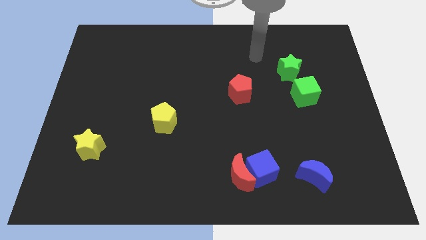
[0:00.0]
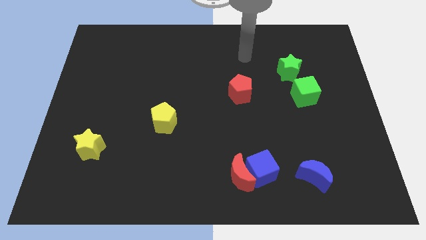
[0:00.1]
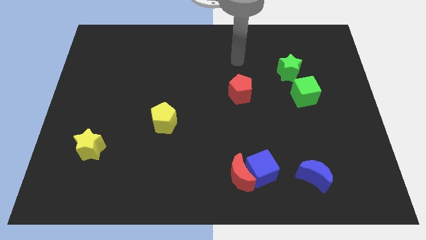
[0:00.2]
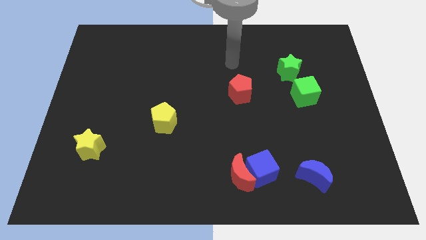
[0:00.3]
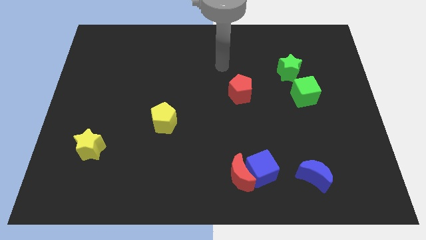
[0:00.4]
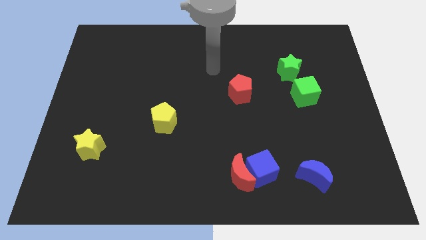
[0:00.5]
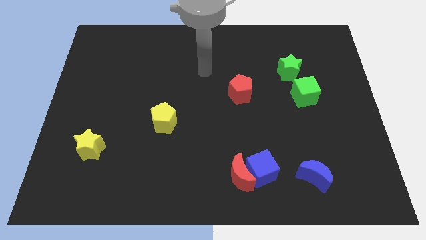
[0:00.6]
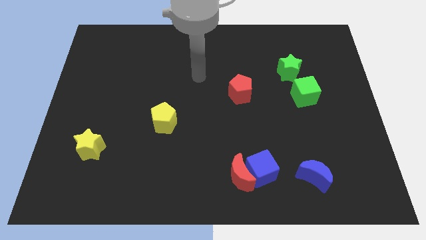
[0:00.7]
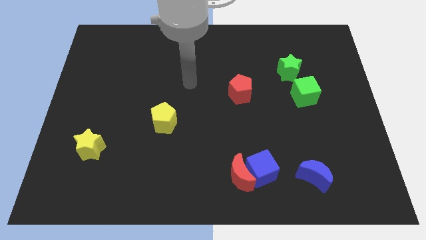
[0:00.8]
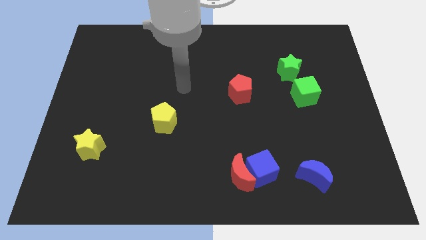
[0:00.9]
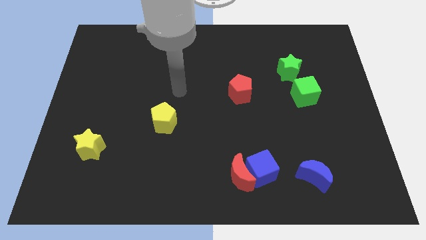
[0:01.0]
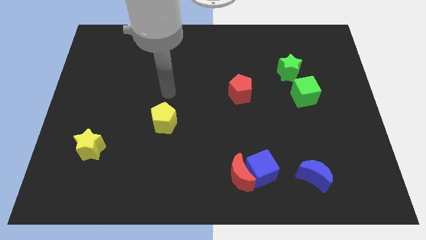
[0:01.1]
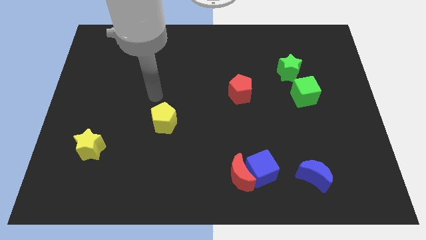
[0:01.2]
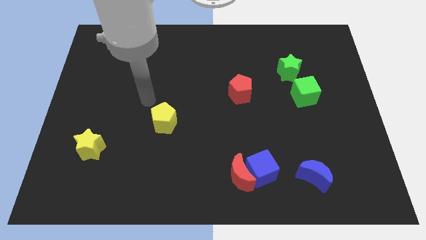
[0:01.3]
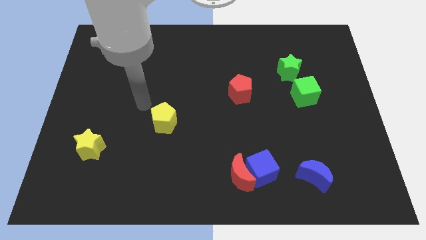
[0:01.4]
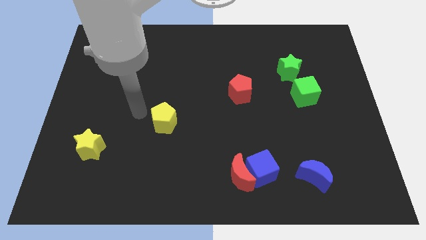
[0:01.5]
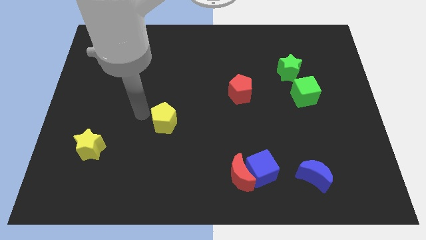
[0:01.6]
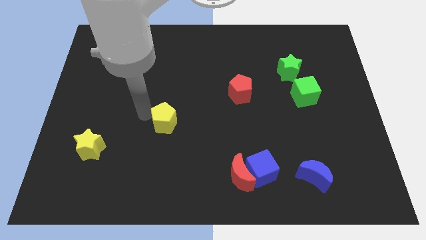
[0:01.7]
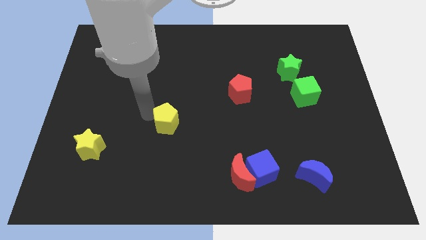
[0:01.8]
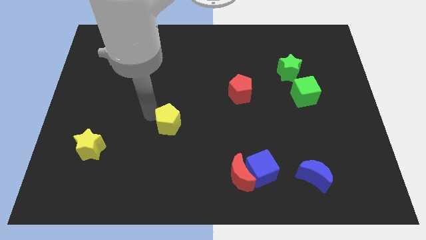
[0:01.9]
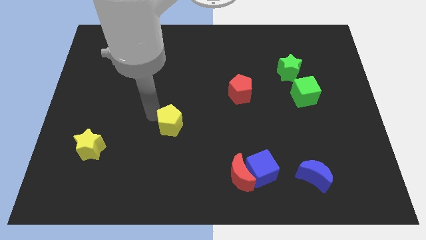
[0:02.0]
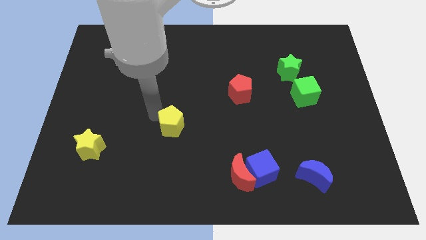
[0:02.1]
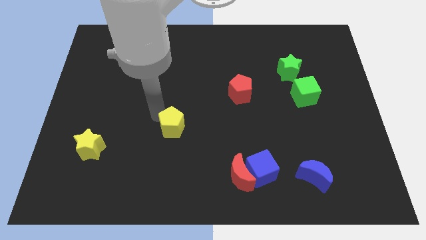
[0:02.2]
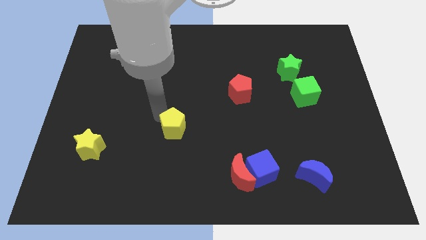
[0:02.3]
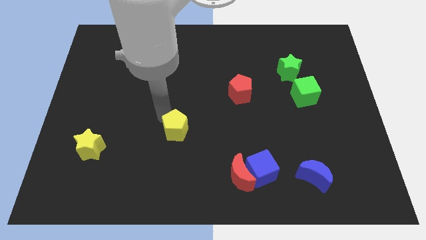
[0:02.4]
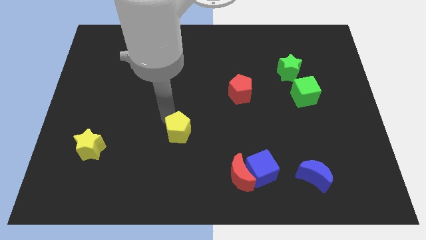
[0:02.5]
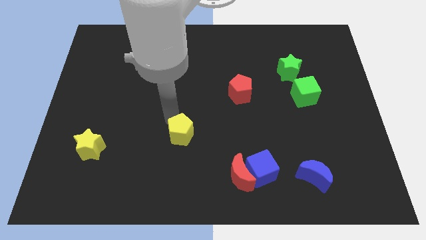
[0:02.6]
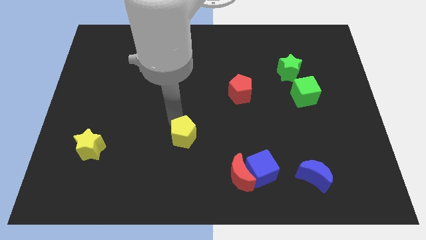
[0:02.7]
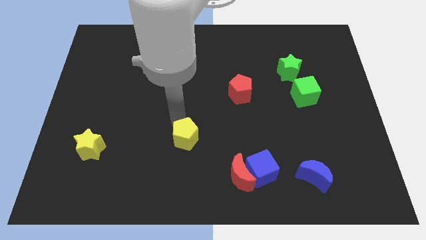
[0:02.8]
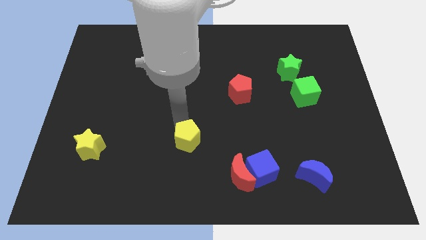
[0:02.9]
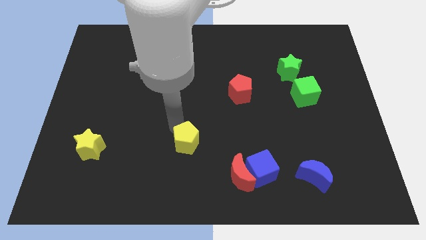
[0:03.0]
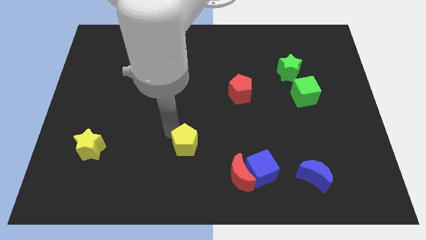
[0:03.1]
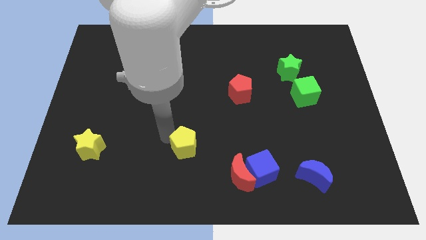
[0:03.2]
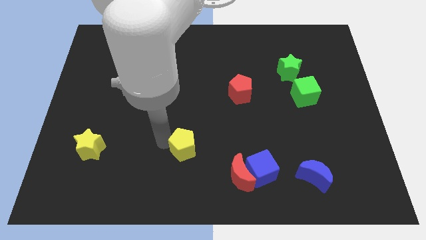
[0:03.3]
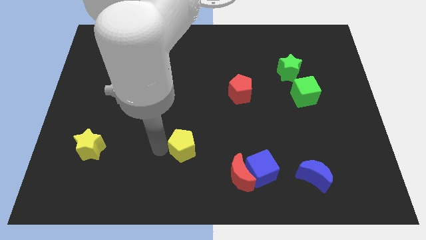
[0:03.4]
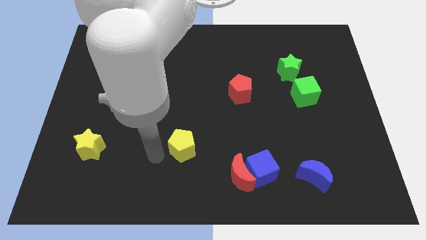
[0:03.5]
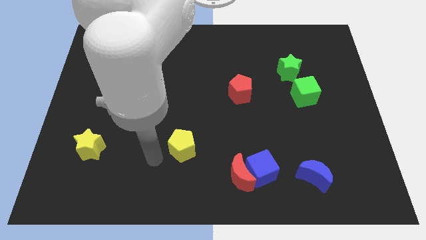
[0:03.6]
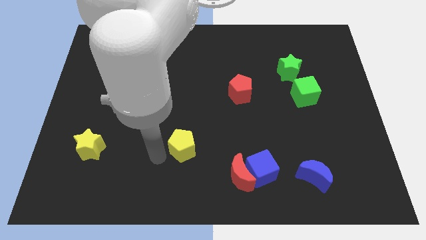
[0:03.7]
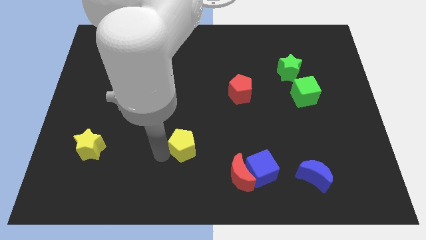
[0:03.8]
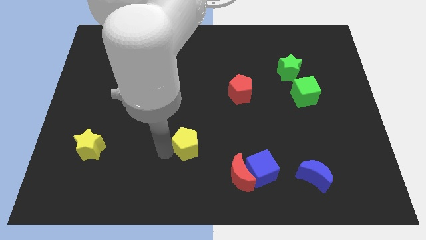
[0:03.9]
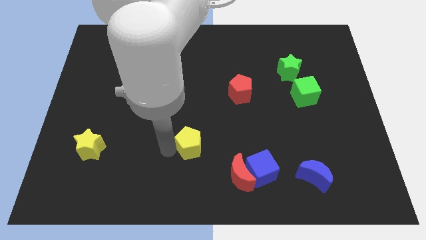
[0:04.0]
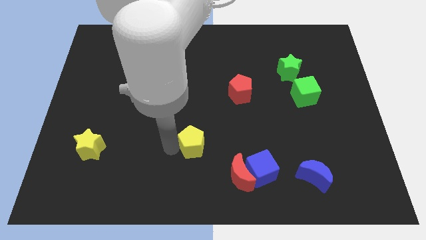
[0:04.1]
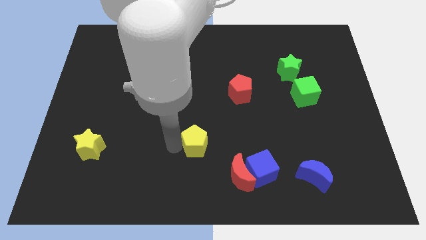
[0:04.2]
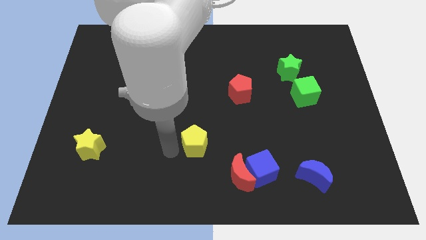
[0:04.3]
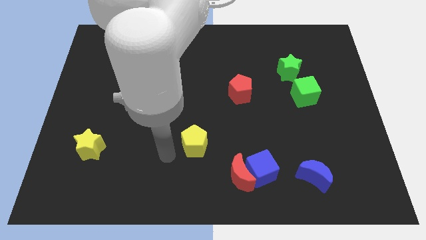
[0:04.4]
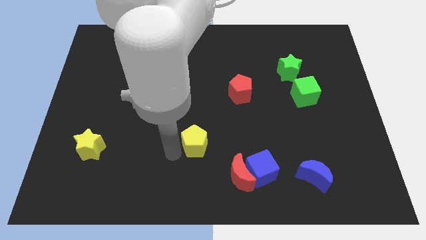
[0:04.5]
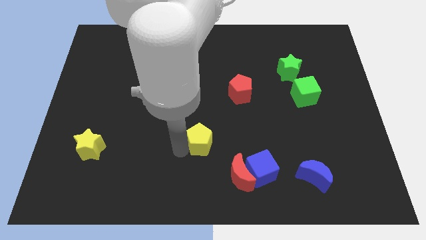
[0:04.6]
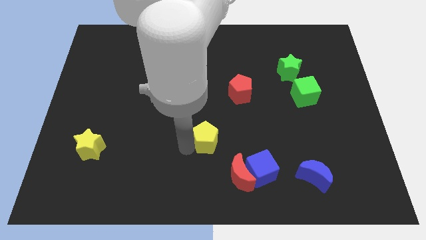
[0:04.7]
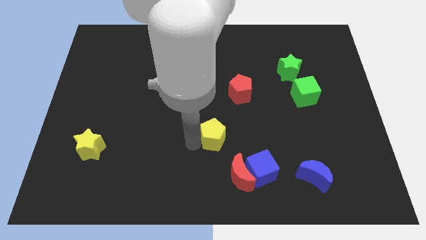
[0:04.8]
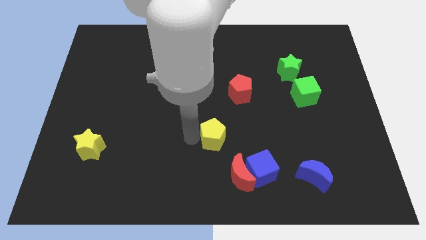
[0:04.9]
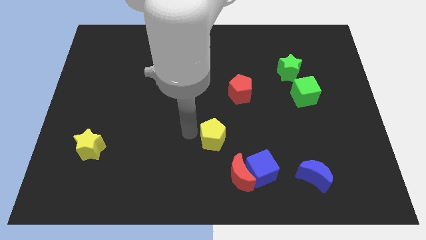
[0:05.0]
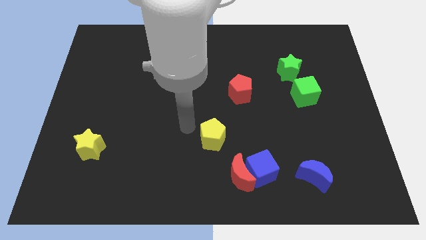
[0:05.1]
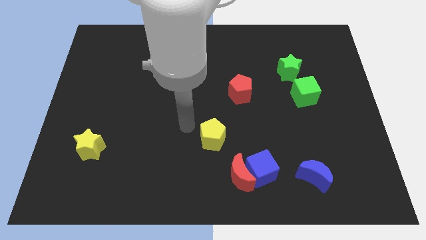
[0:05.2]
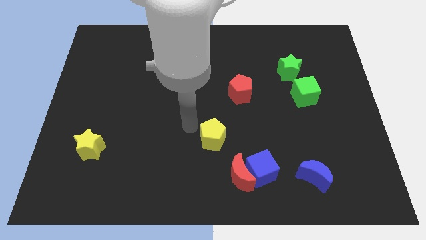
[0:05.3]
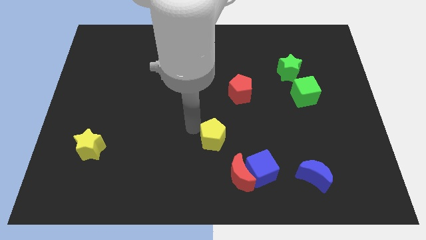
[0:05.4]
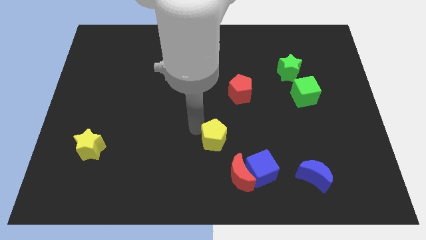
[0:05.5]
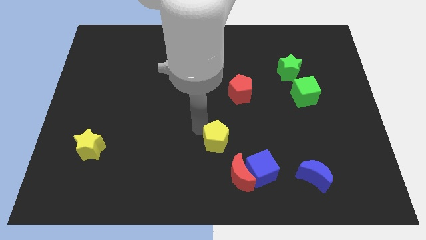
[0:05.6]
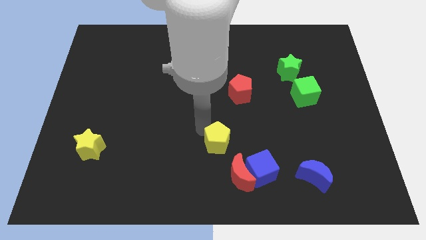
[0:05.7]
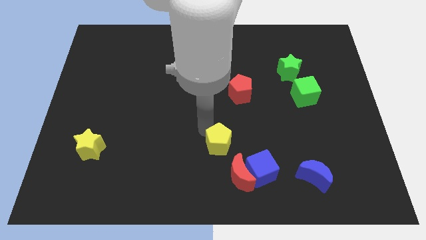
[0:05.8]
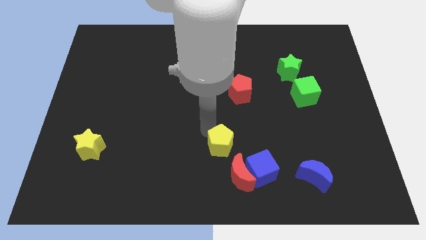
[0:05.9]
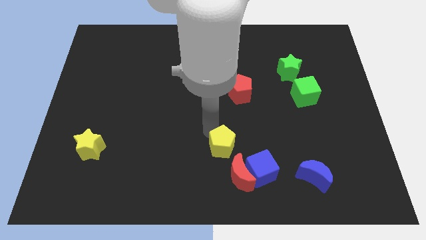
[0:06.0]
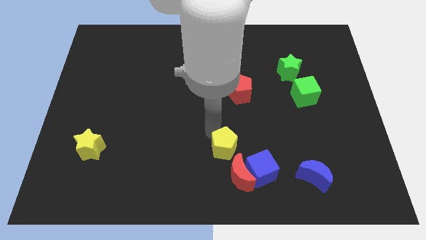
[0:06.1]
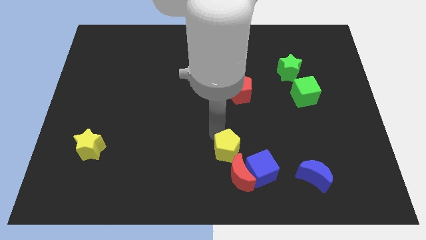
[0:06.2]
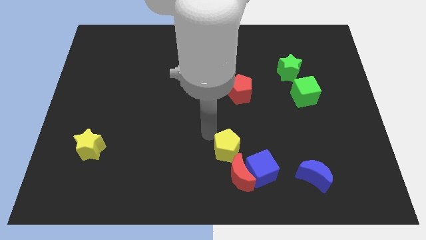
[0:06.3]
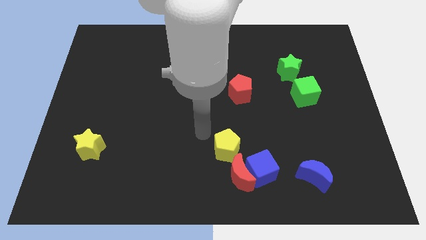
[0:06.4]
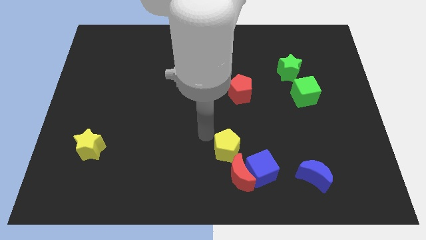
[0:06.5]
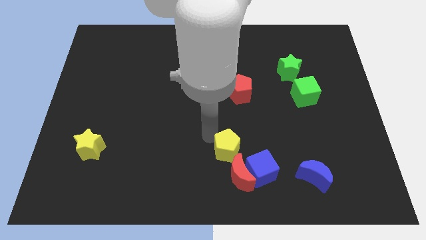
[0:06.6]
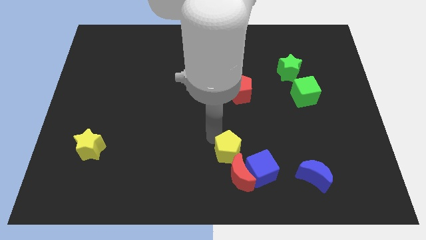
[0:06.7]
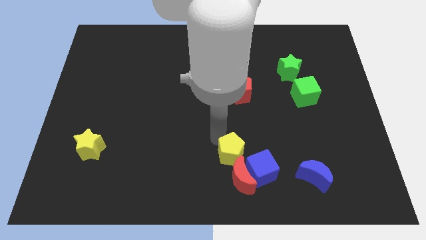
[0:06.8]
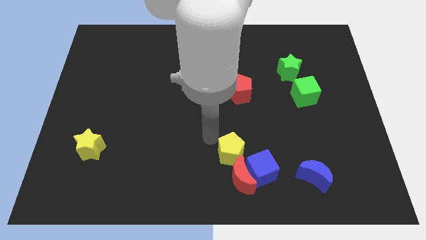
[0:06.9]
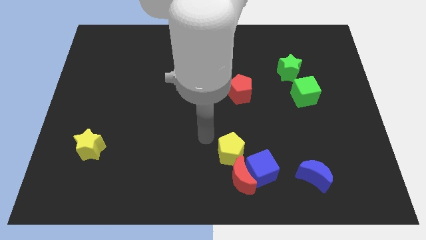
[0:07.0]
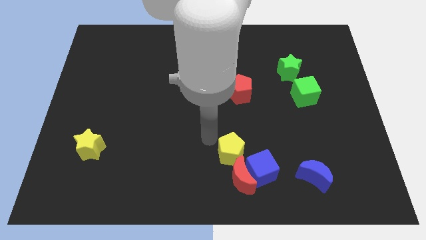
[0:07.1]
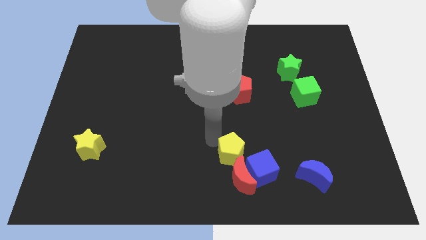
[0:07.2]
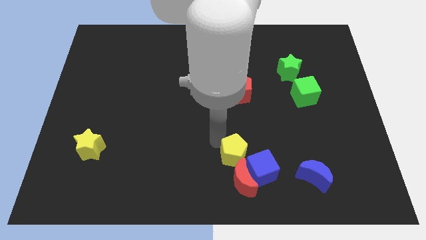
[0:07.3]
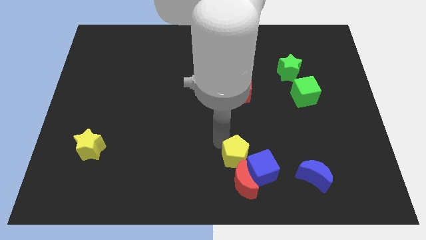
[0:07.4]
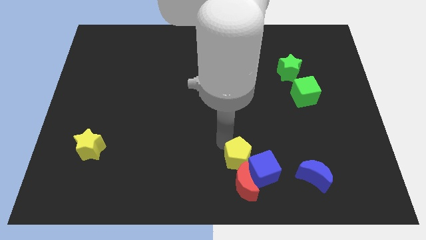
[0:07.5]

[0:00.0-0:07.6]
push the yellow pentagon to the blue cube

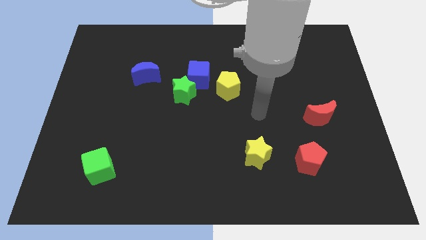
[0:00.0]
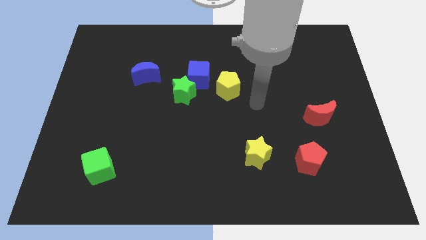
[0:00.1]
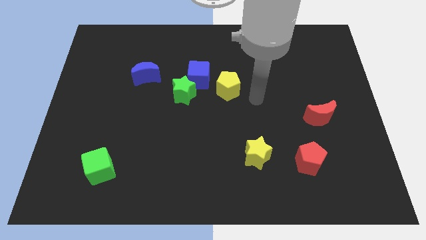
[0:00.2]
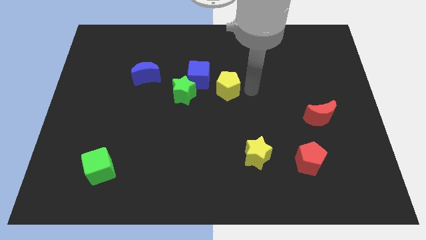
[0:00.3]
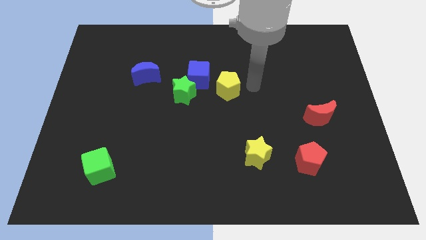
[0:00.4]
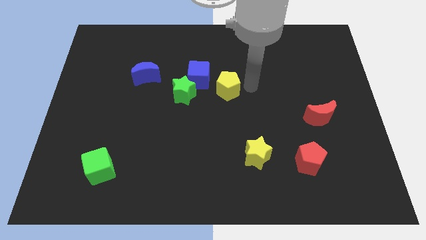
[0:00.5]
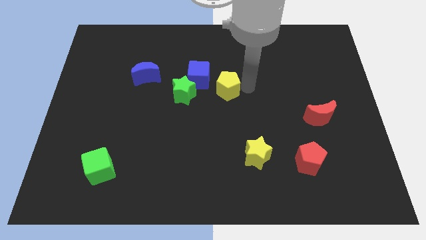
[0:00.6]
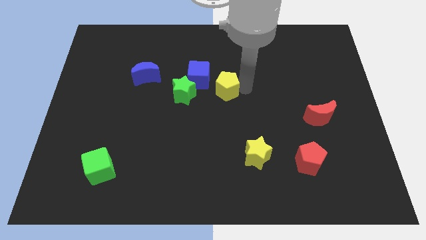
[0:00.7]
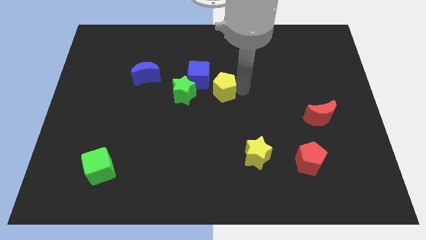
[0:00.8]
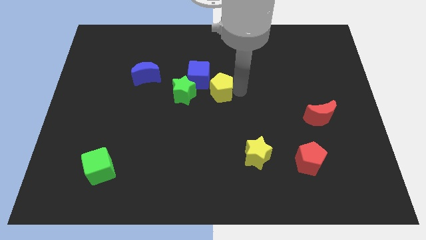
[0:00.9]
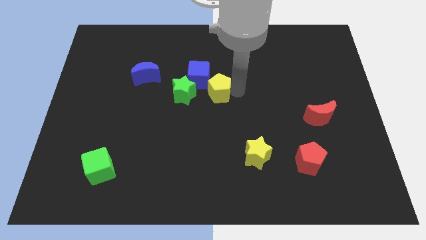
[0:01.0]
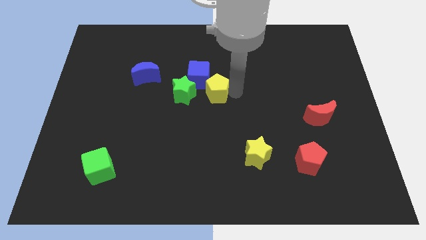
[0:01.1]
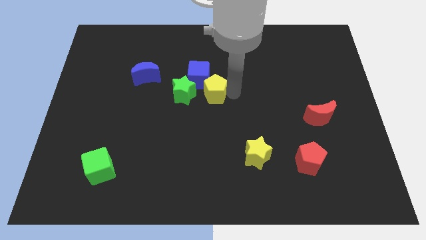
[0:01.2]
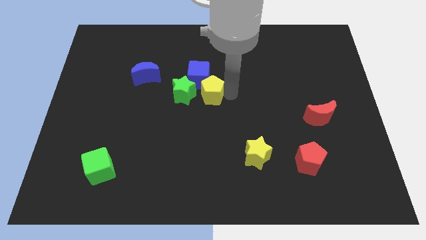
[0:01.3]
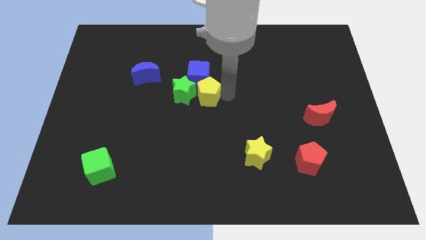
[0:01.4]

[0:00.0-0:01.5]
move the yellow pentagon close to the green star
